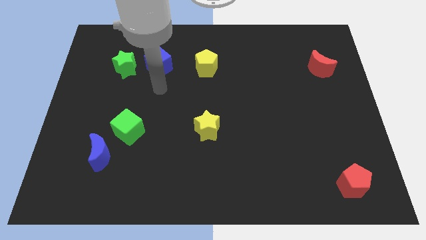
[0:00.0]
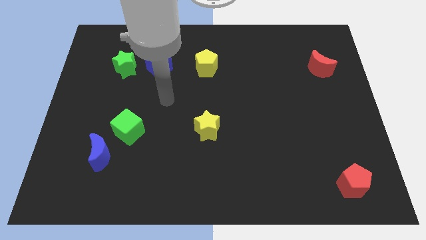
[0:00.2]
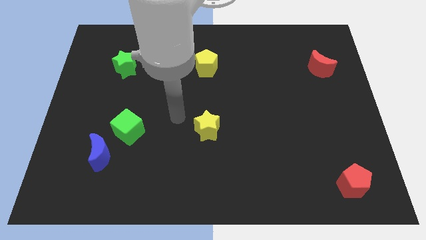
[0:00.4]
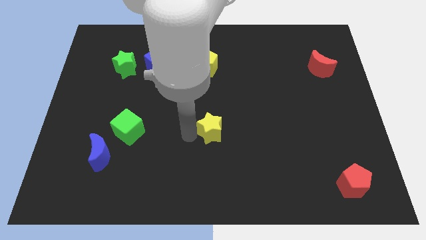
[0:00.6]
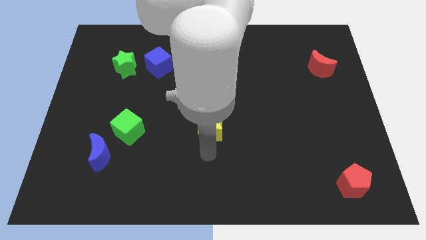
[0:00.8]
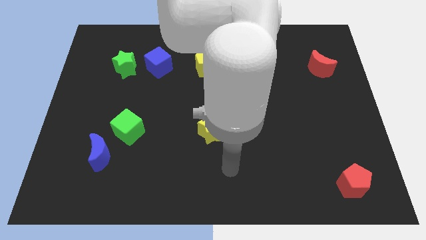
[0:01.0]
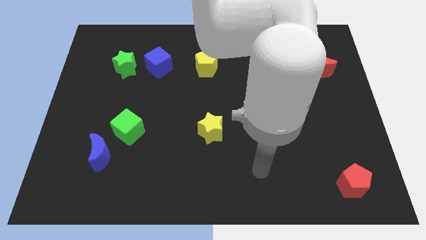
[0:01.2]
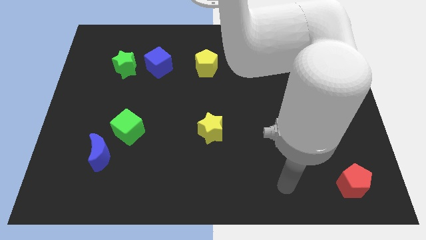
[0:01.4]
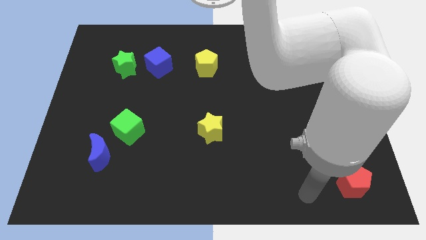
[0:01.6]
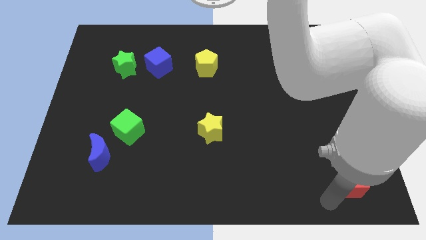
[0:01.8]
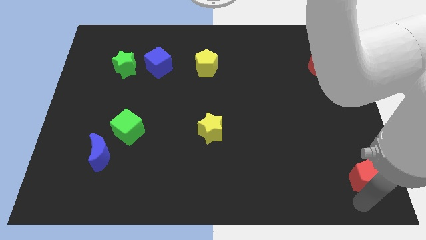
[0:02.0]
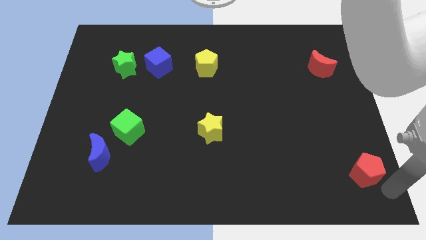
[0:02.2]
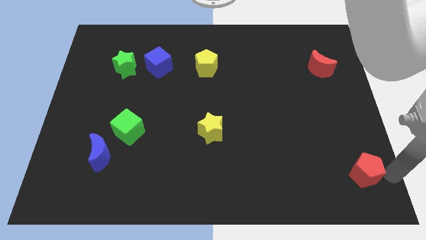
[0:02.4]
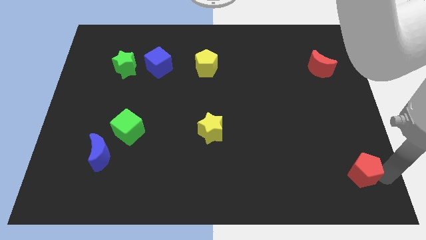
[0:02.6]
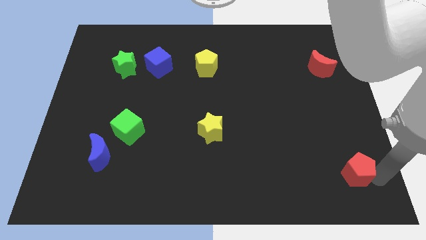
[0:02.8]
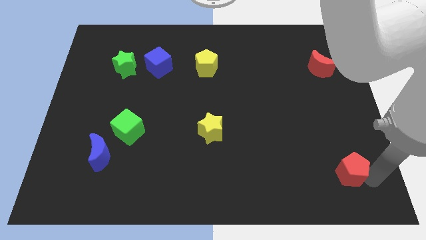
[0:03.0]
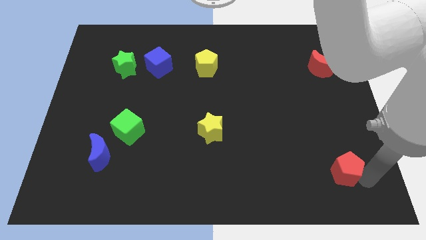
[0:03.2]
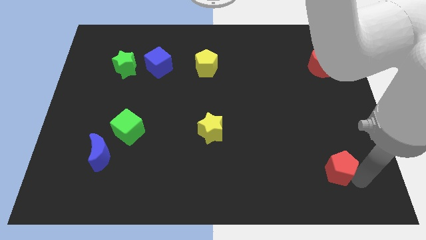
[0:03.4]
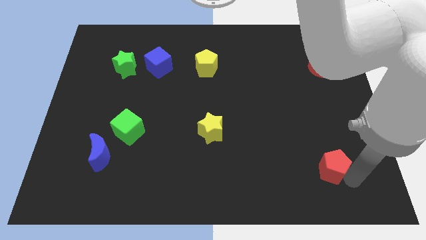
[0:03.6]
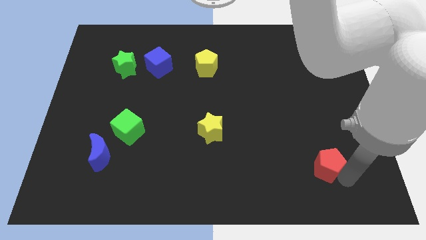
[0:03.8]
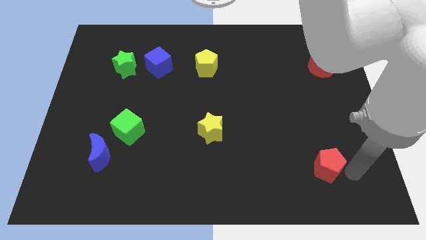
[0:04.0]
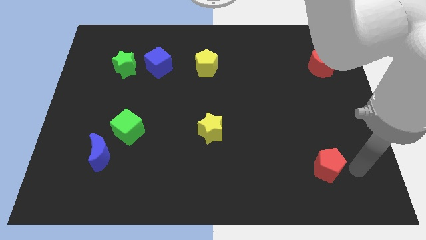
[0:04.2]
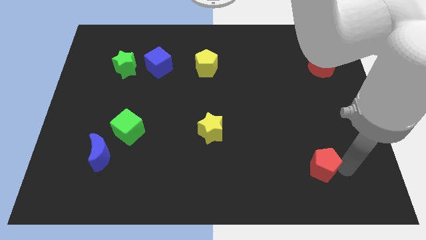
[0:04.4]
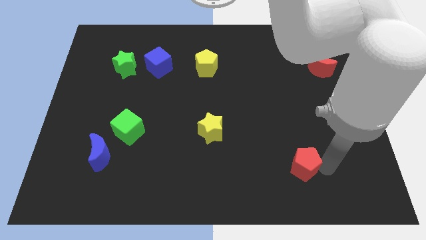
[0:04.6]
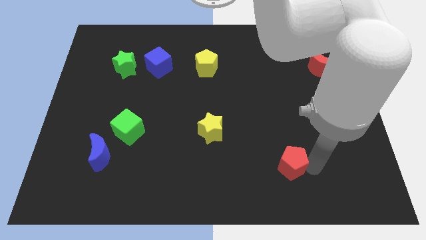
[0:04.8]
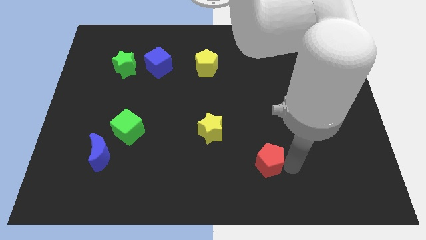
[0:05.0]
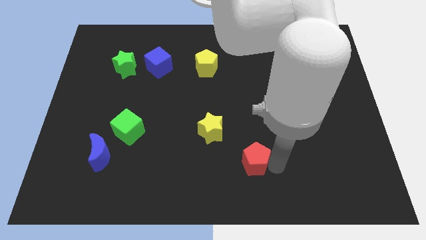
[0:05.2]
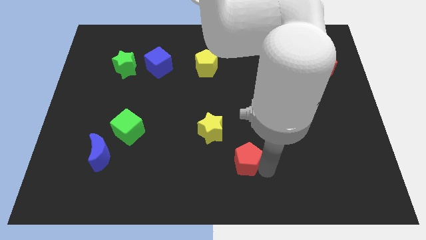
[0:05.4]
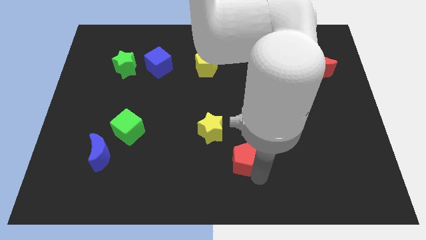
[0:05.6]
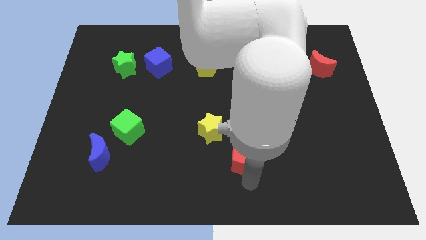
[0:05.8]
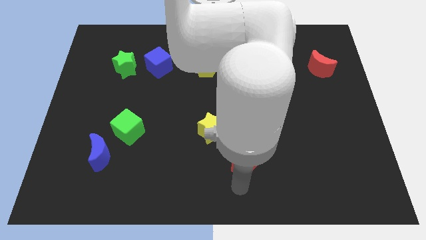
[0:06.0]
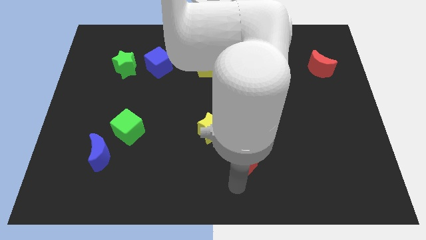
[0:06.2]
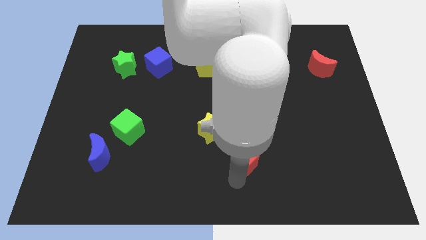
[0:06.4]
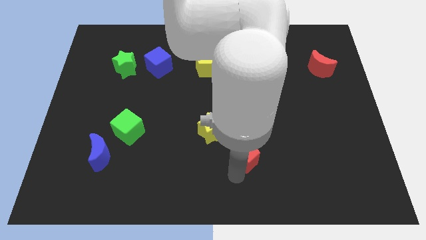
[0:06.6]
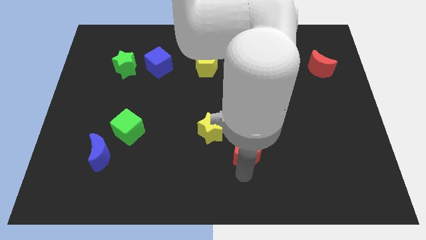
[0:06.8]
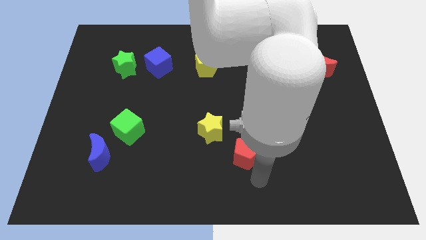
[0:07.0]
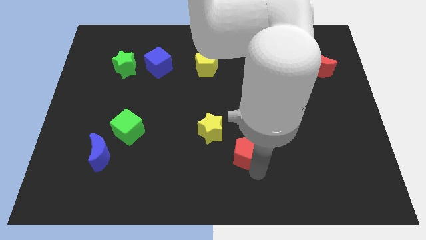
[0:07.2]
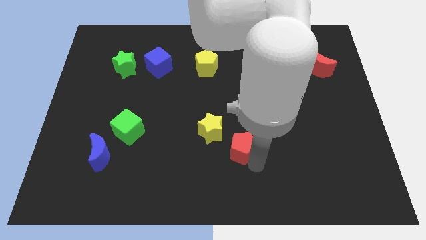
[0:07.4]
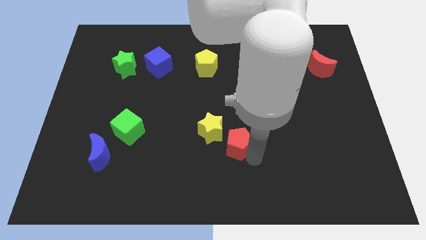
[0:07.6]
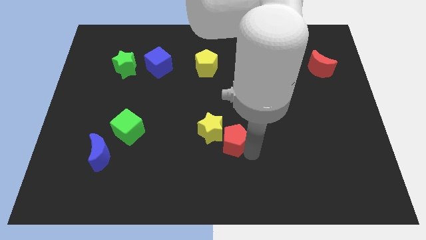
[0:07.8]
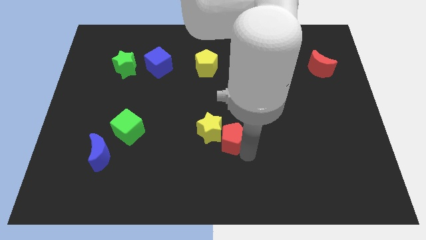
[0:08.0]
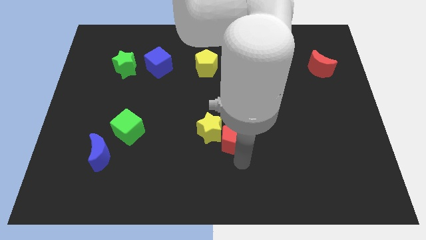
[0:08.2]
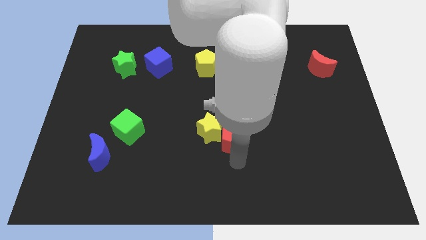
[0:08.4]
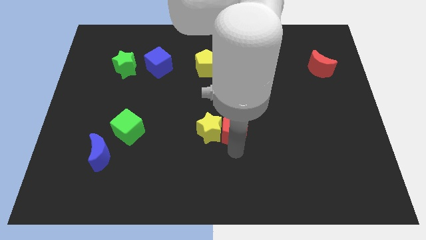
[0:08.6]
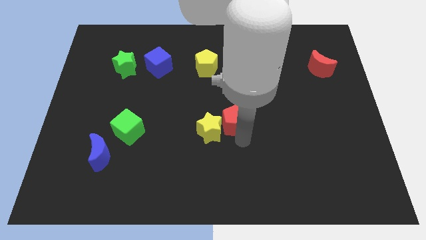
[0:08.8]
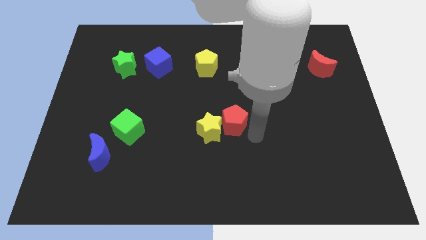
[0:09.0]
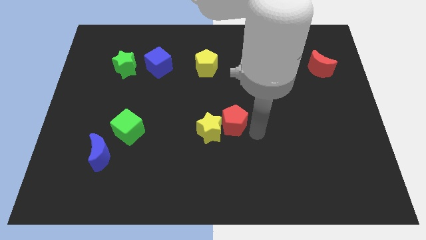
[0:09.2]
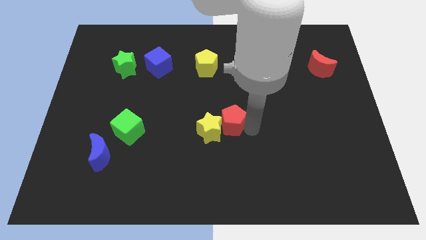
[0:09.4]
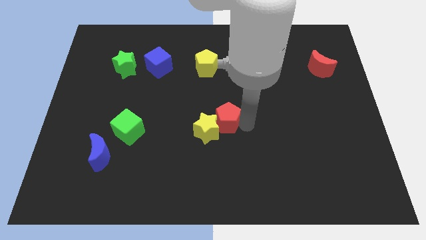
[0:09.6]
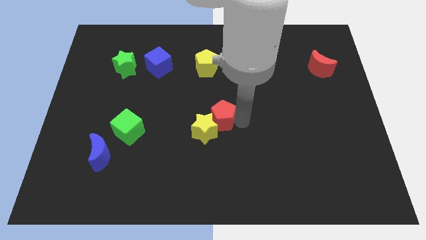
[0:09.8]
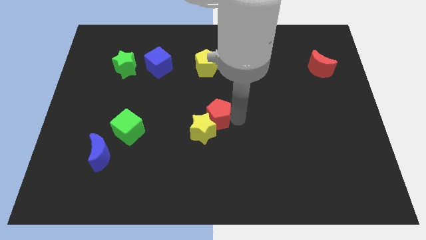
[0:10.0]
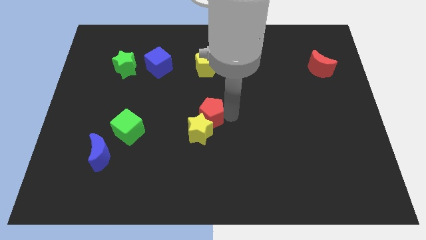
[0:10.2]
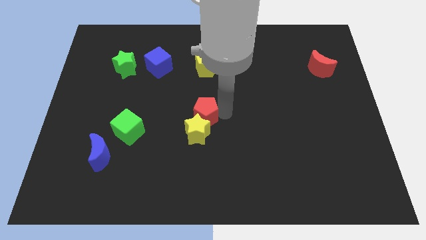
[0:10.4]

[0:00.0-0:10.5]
move the red pentagon to the top left of the yellow star

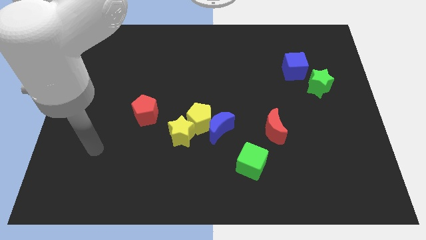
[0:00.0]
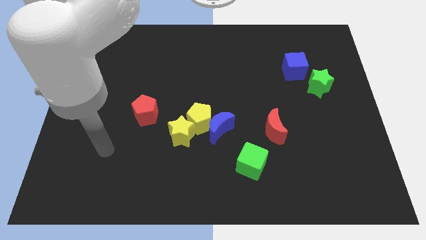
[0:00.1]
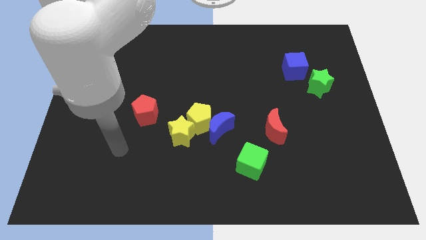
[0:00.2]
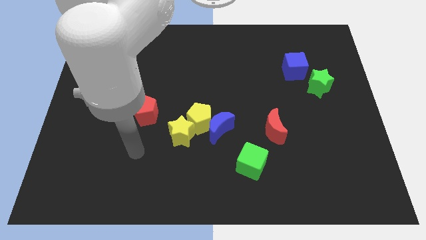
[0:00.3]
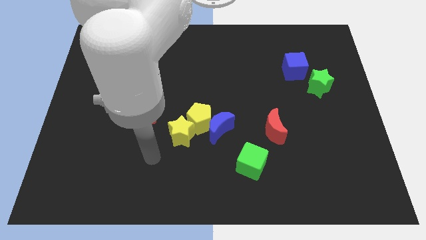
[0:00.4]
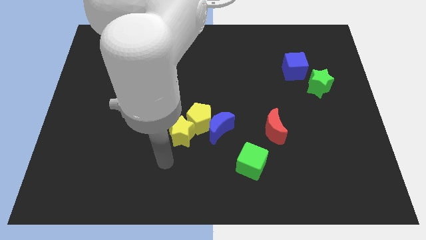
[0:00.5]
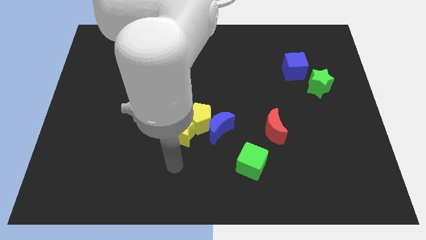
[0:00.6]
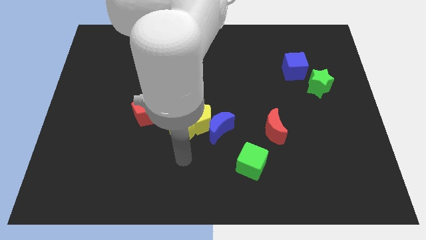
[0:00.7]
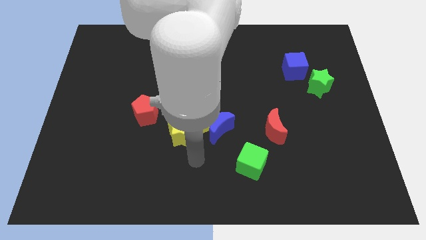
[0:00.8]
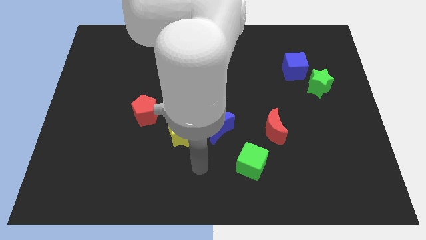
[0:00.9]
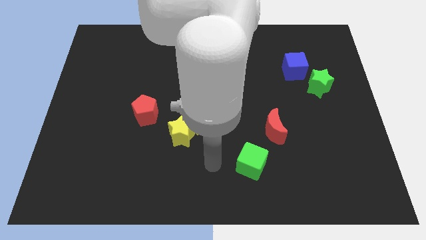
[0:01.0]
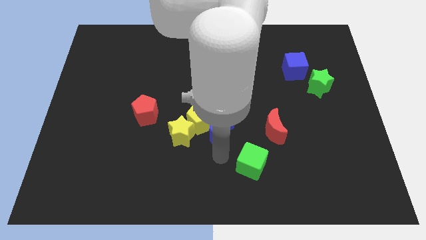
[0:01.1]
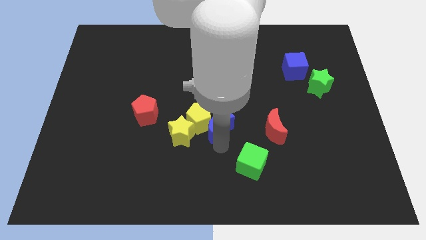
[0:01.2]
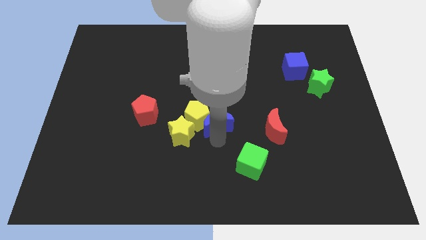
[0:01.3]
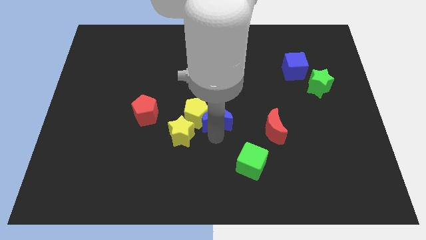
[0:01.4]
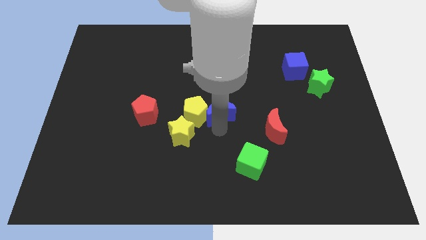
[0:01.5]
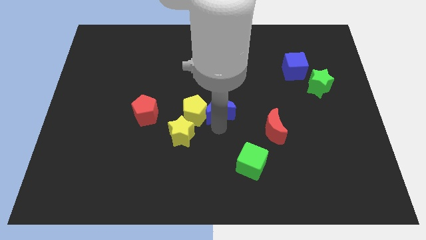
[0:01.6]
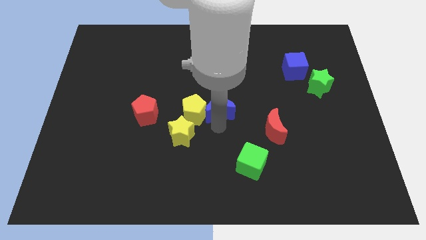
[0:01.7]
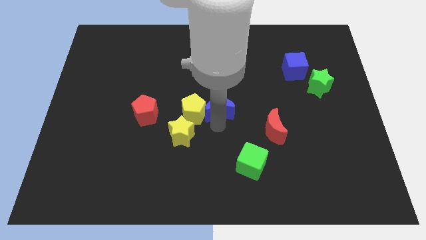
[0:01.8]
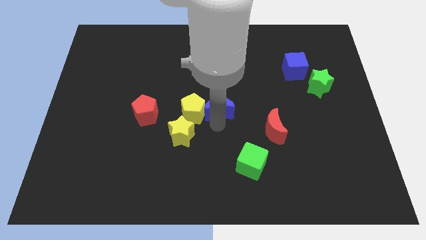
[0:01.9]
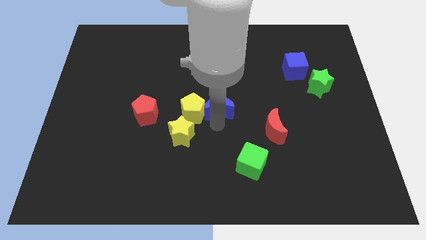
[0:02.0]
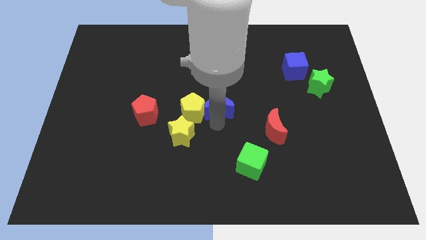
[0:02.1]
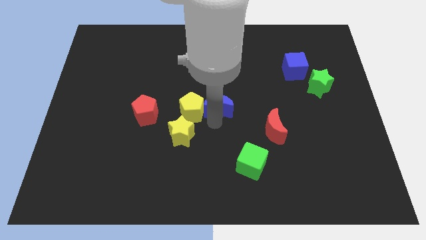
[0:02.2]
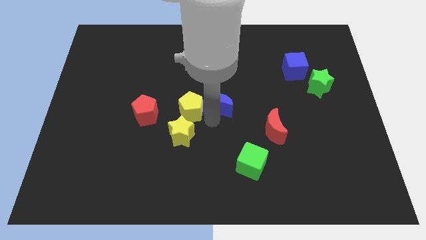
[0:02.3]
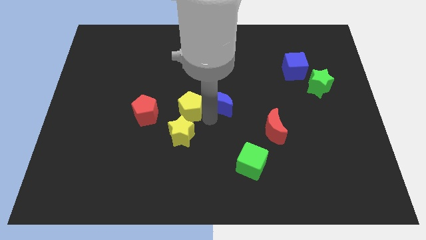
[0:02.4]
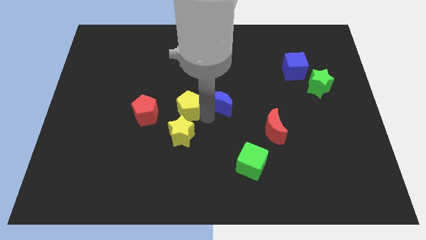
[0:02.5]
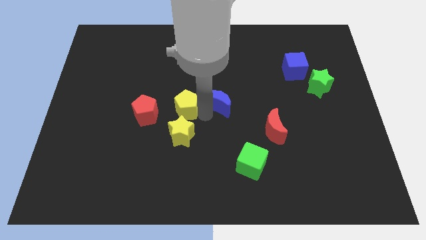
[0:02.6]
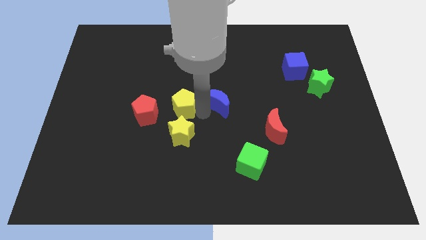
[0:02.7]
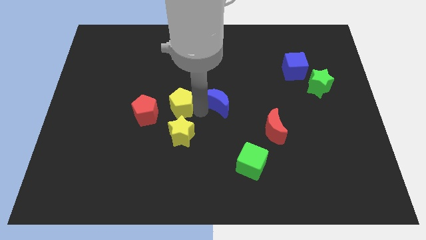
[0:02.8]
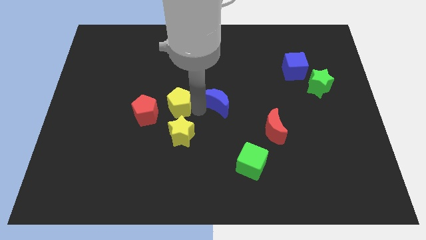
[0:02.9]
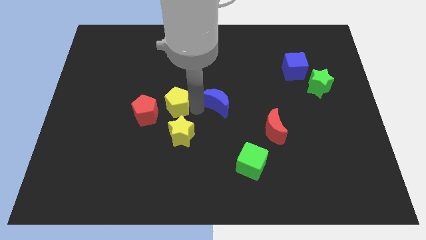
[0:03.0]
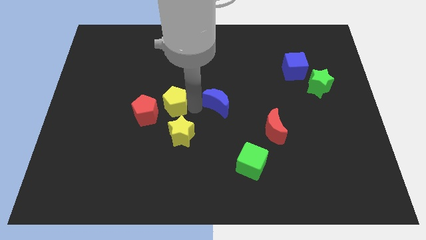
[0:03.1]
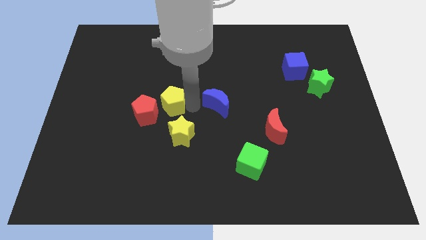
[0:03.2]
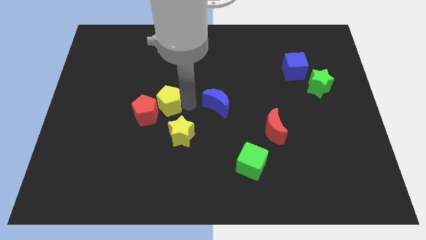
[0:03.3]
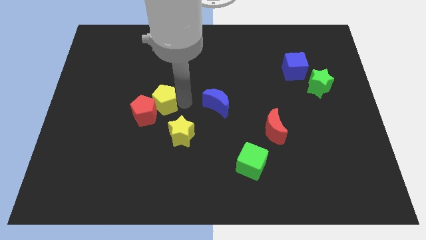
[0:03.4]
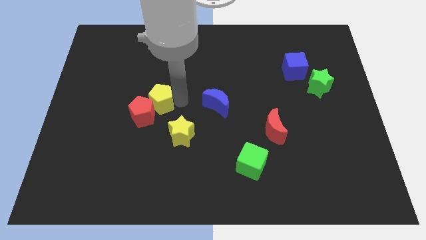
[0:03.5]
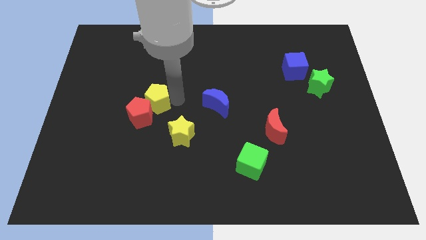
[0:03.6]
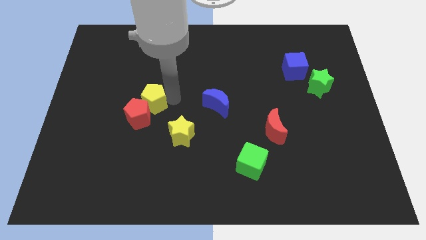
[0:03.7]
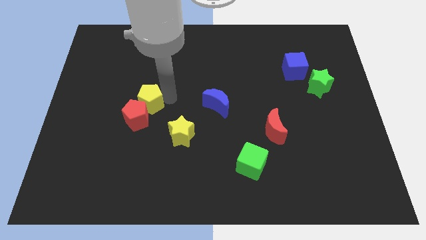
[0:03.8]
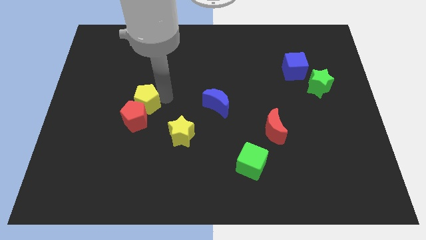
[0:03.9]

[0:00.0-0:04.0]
slide the yellow pentagon to the top left side of the red pentagon
